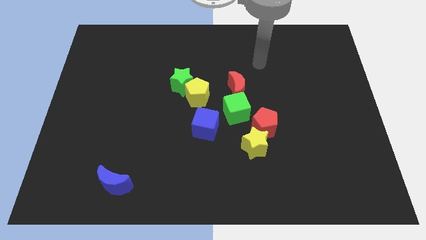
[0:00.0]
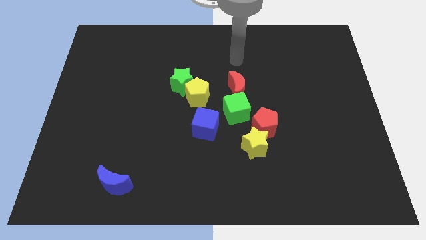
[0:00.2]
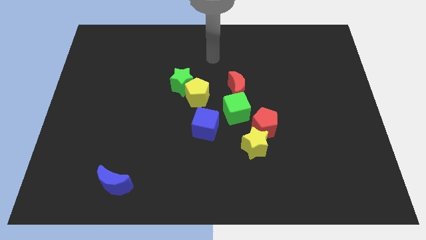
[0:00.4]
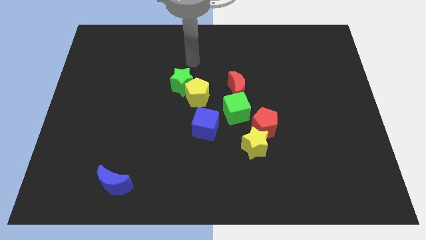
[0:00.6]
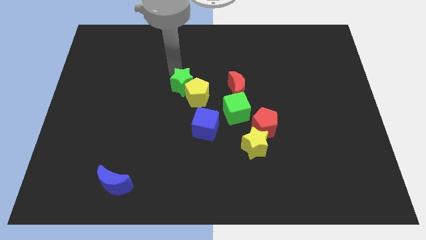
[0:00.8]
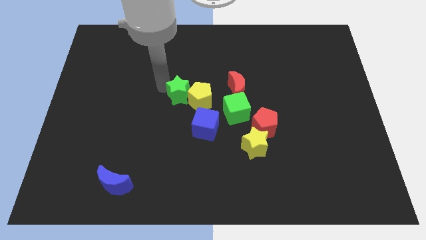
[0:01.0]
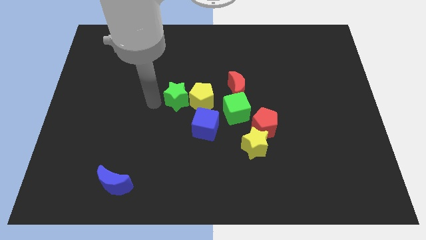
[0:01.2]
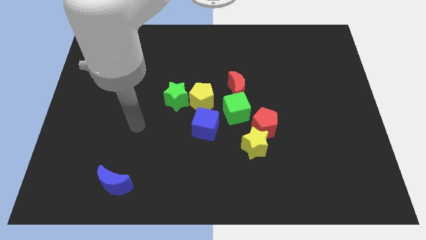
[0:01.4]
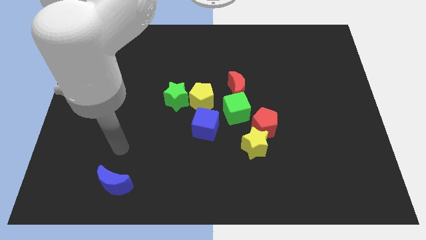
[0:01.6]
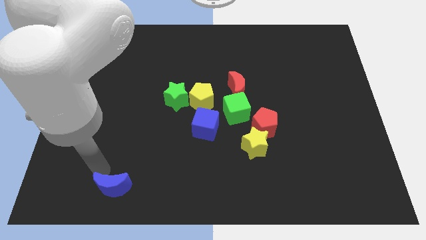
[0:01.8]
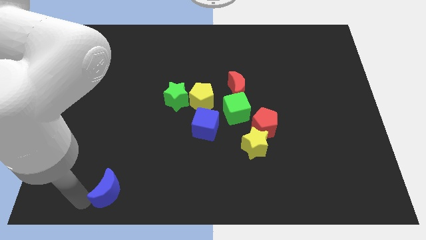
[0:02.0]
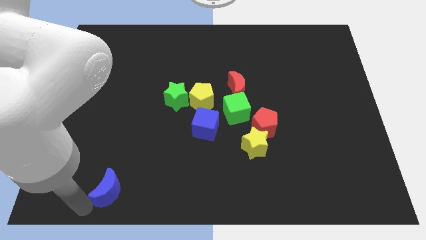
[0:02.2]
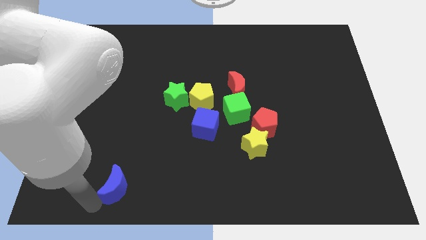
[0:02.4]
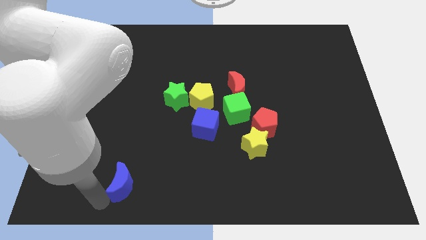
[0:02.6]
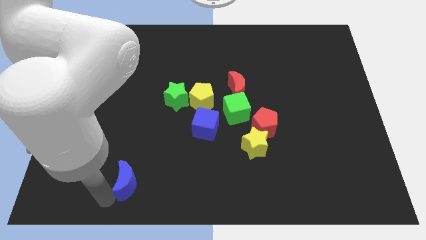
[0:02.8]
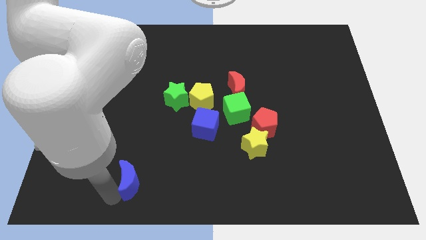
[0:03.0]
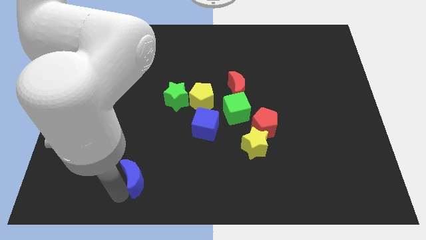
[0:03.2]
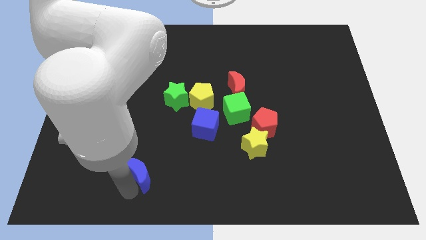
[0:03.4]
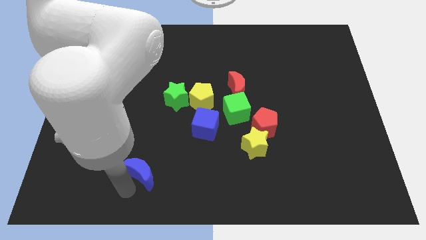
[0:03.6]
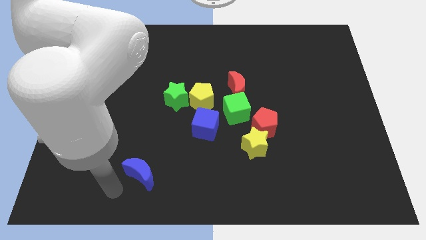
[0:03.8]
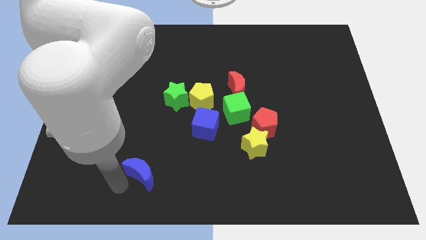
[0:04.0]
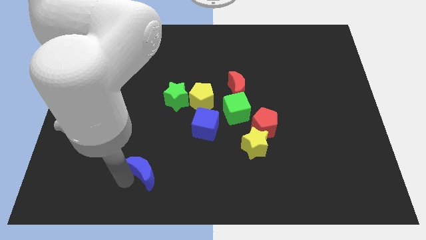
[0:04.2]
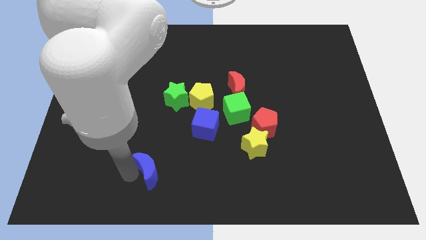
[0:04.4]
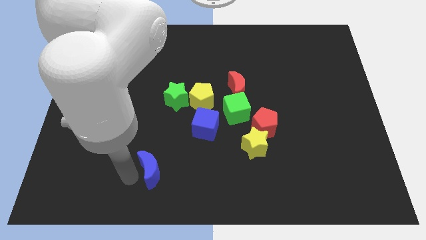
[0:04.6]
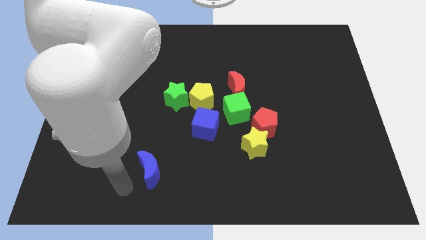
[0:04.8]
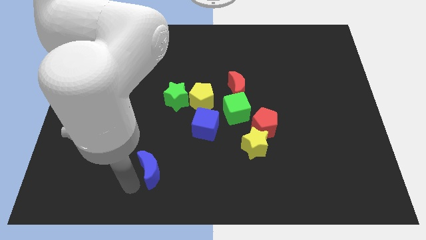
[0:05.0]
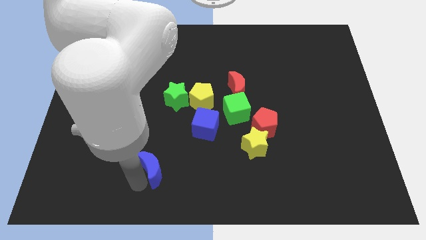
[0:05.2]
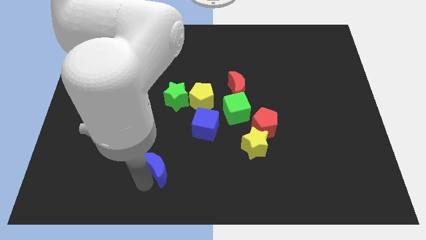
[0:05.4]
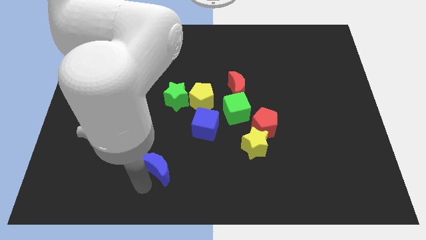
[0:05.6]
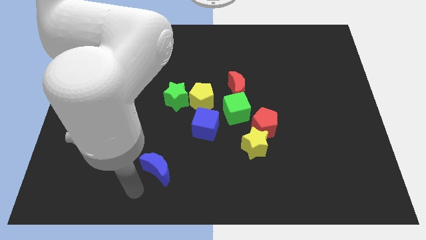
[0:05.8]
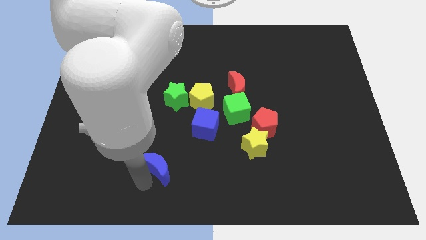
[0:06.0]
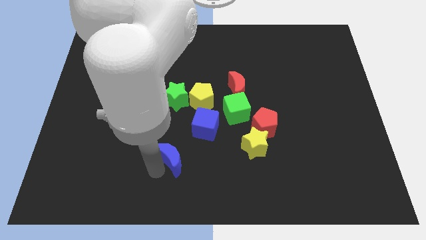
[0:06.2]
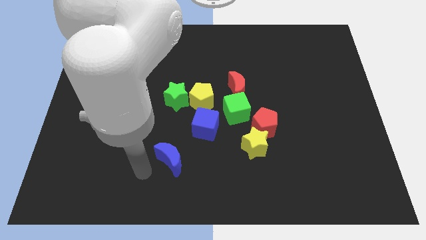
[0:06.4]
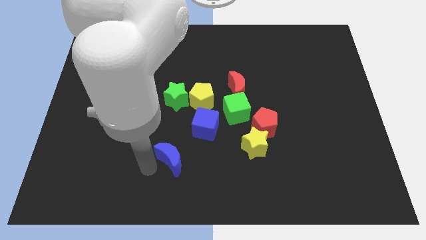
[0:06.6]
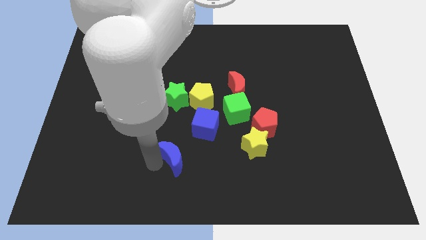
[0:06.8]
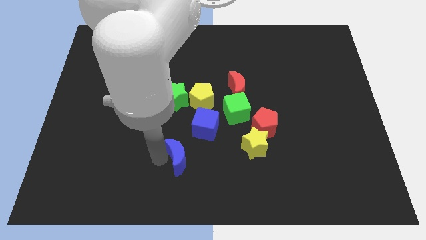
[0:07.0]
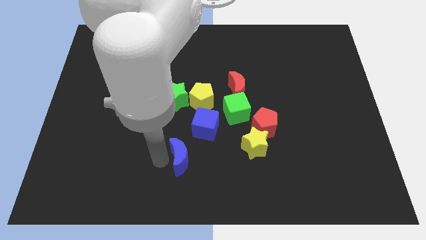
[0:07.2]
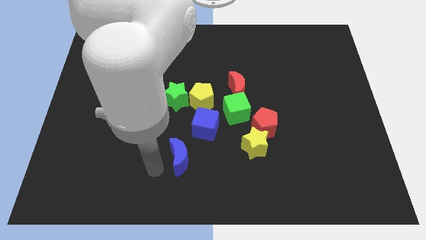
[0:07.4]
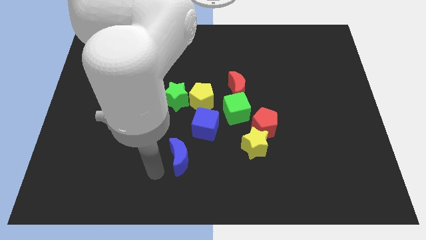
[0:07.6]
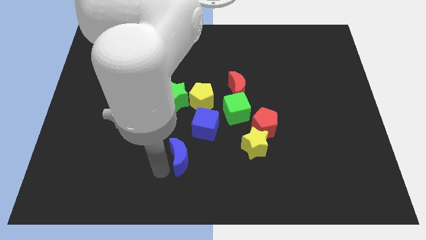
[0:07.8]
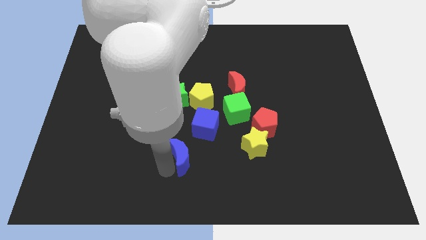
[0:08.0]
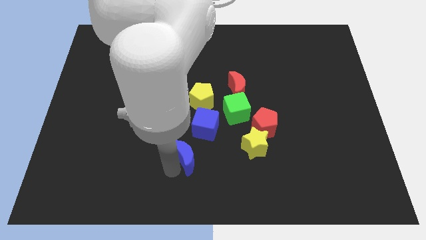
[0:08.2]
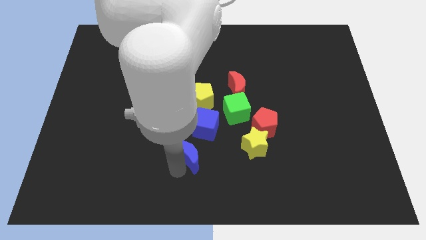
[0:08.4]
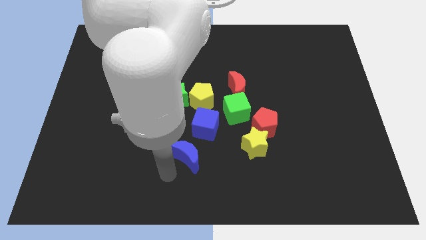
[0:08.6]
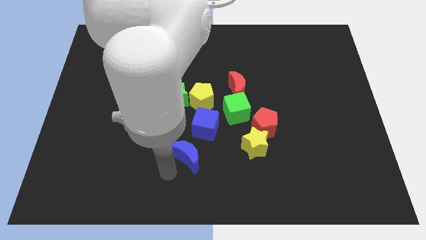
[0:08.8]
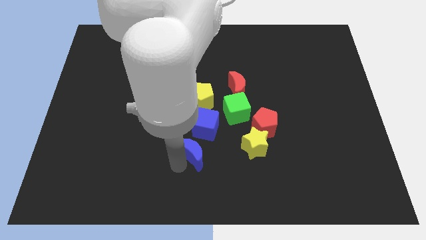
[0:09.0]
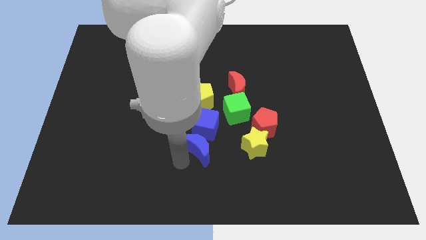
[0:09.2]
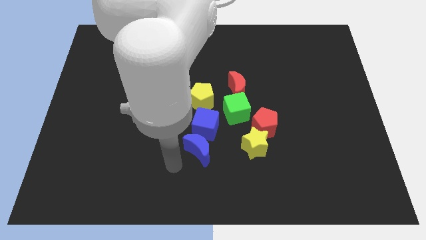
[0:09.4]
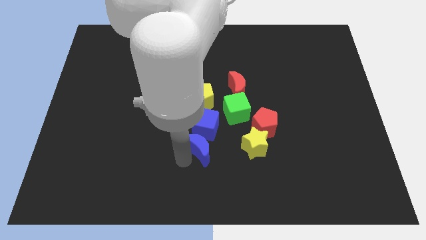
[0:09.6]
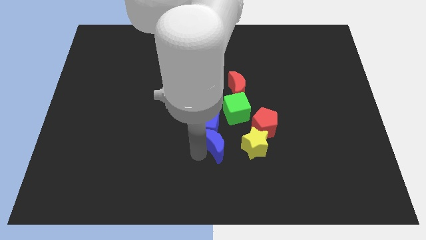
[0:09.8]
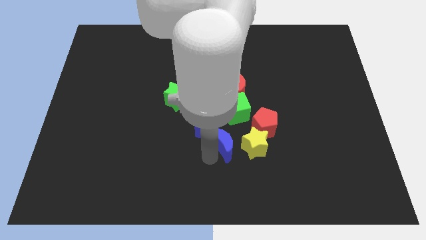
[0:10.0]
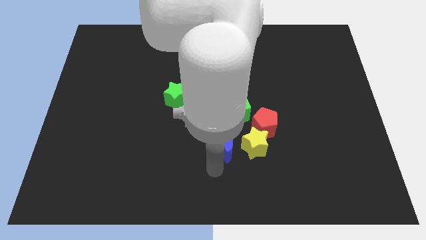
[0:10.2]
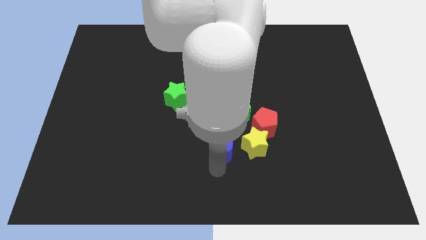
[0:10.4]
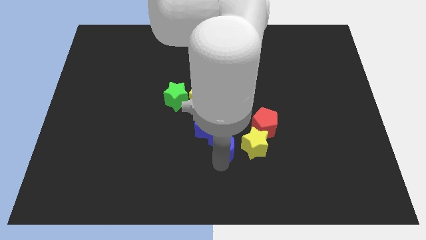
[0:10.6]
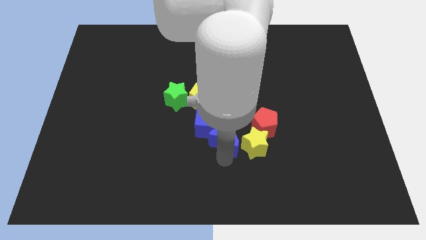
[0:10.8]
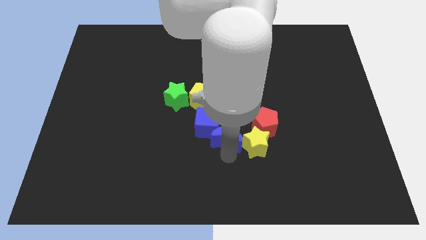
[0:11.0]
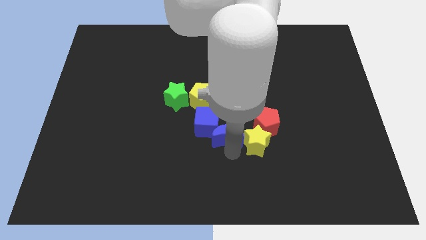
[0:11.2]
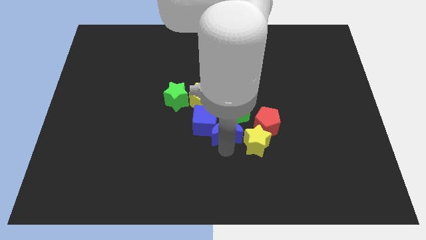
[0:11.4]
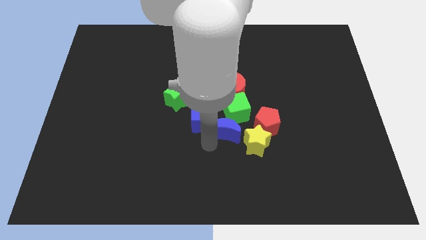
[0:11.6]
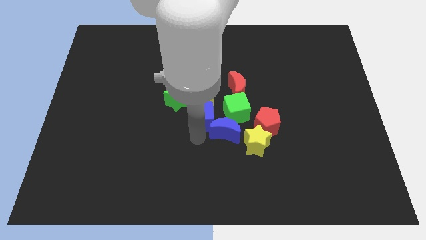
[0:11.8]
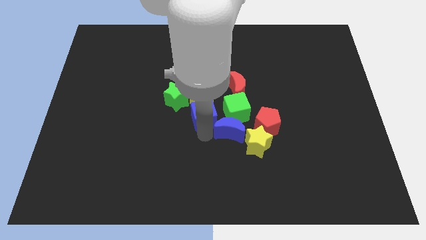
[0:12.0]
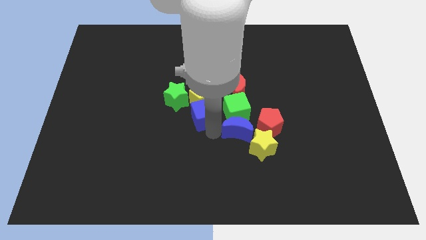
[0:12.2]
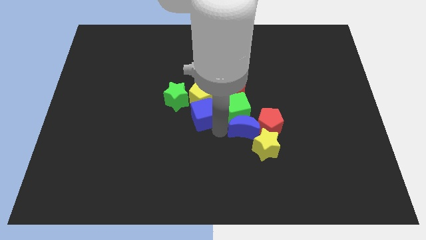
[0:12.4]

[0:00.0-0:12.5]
put the blue moon close to the red pentagon
